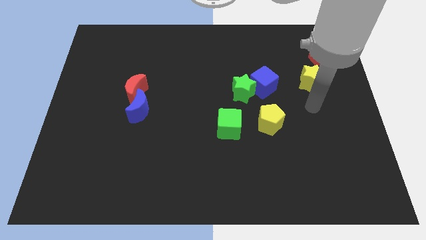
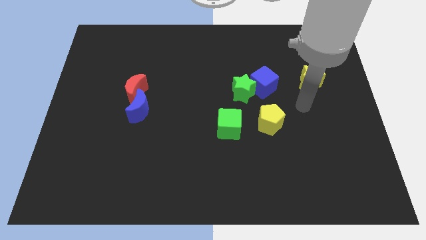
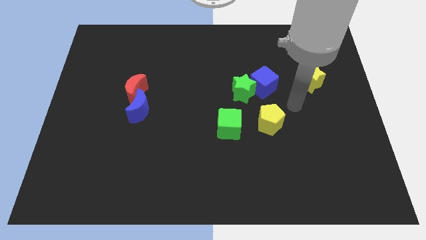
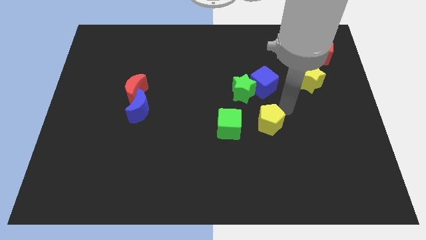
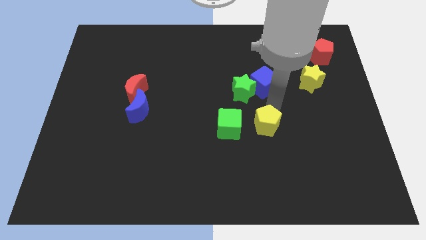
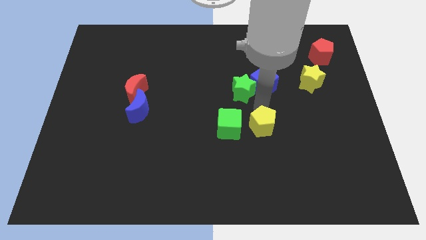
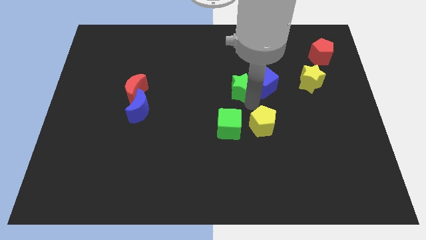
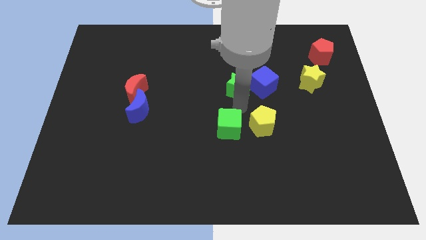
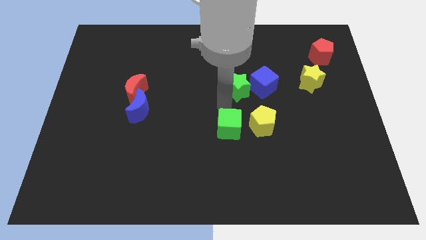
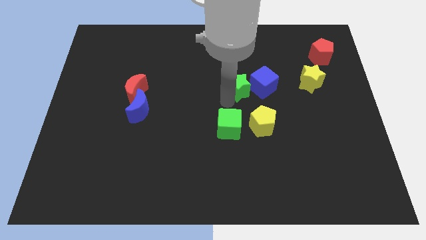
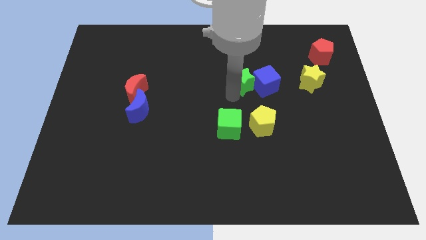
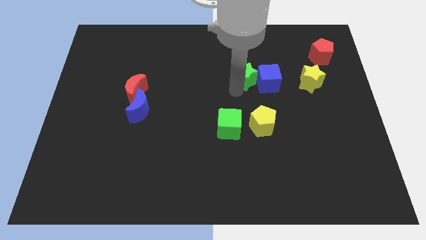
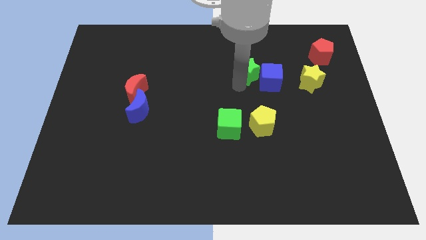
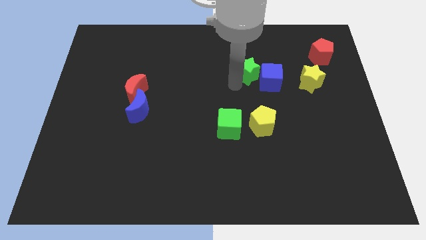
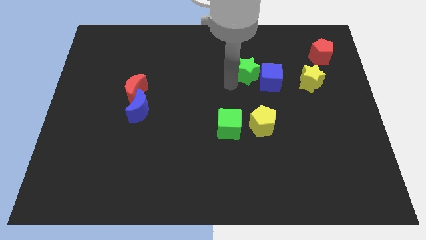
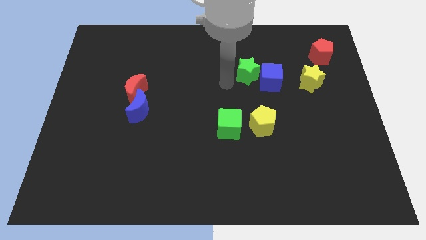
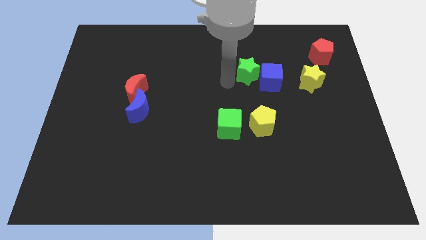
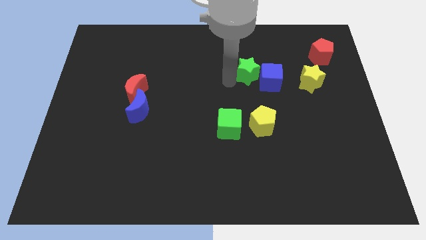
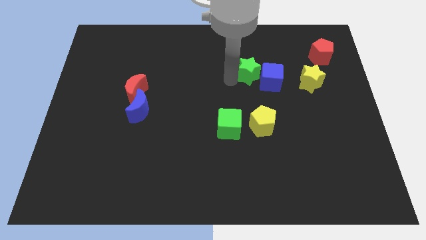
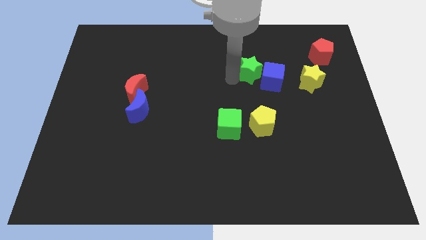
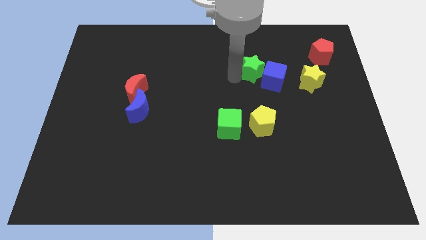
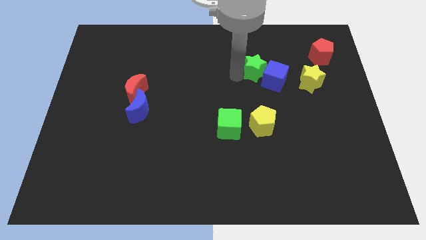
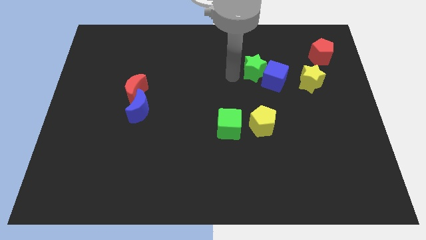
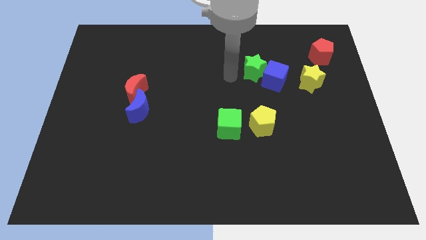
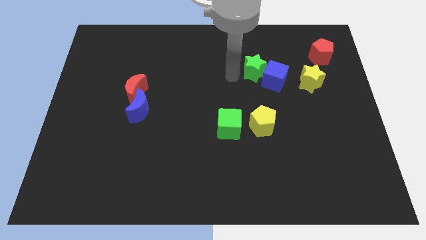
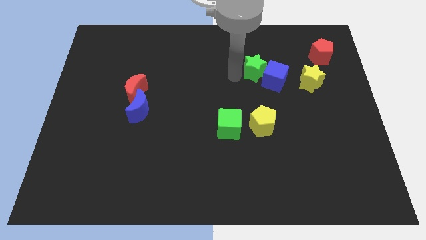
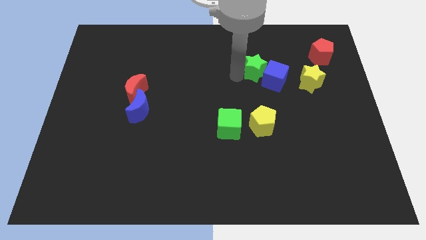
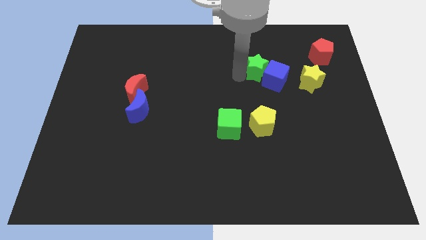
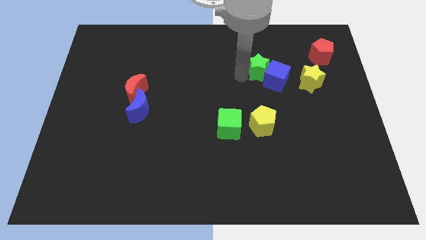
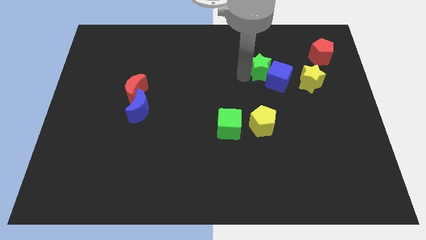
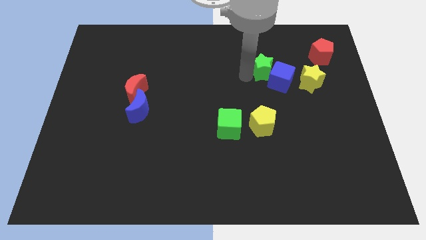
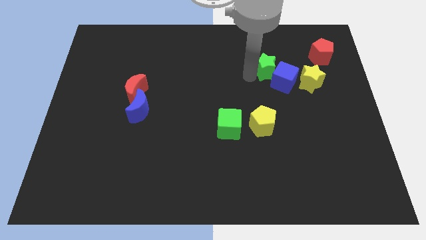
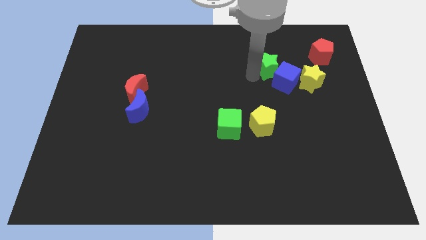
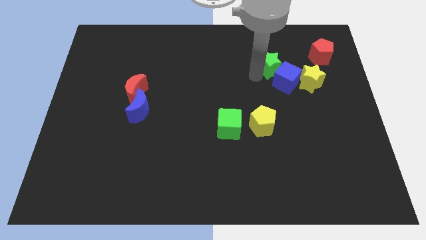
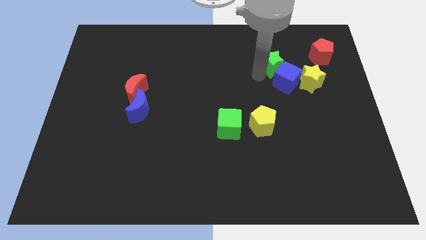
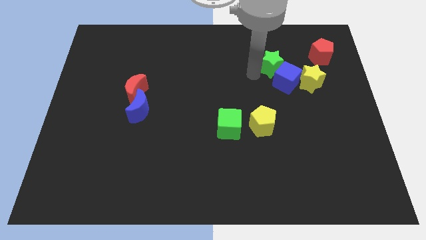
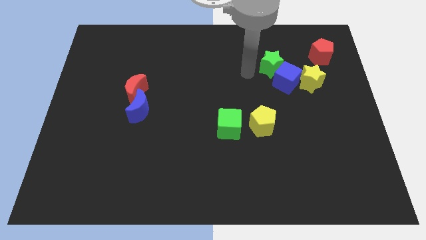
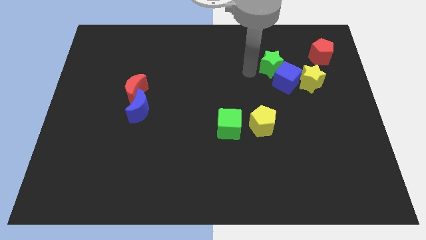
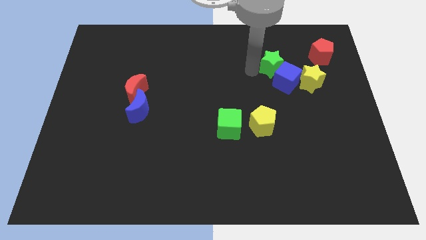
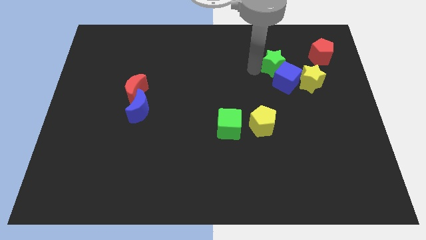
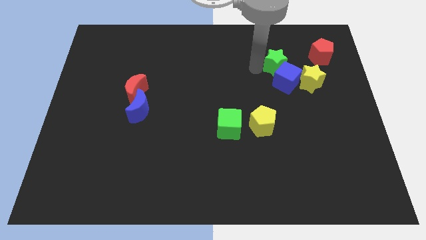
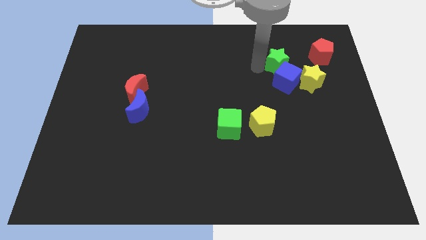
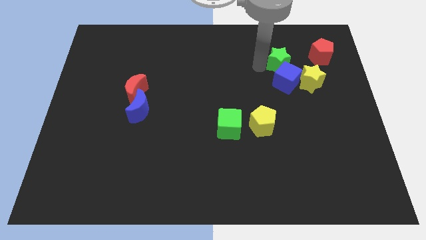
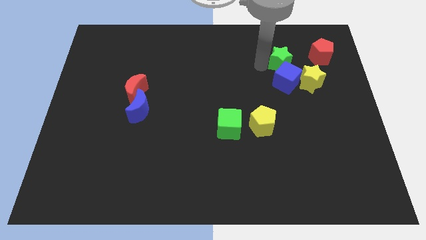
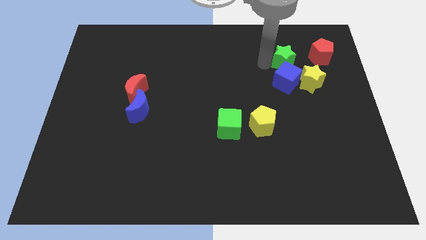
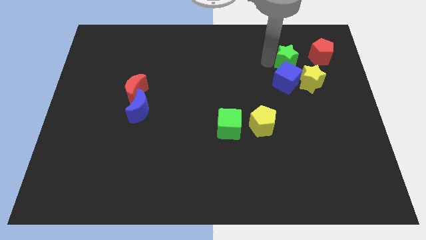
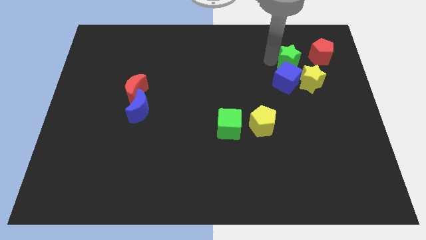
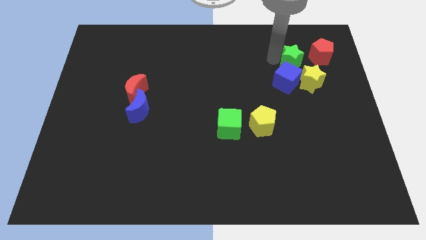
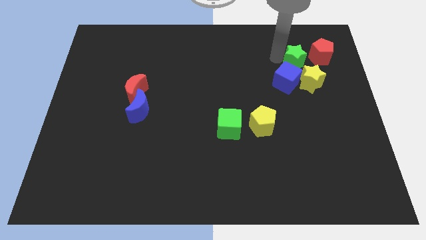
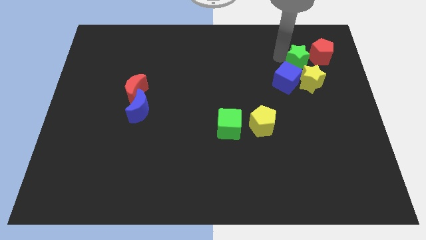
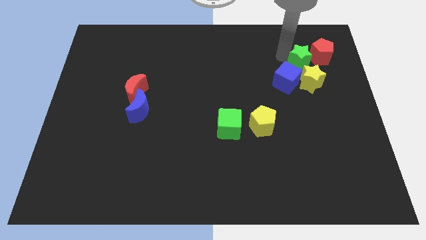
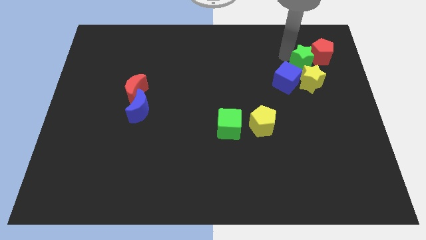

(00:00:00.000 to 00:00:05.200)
move the green star towards the red pentagon

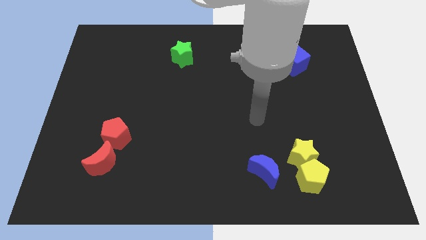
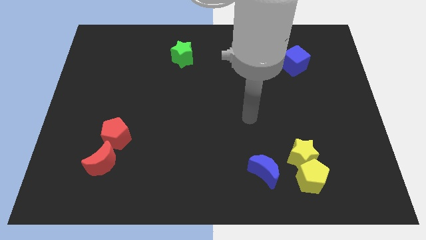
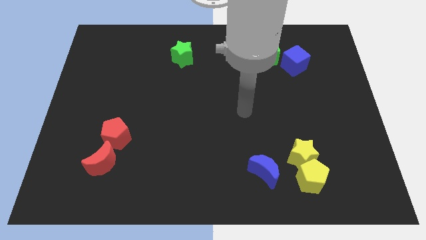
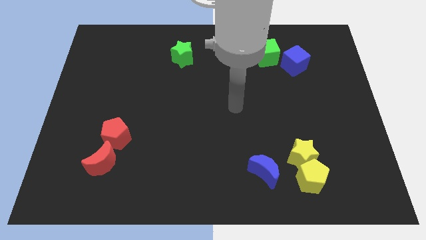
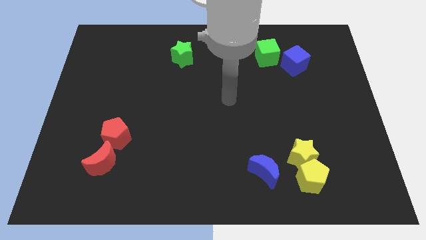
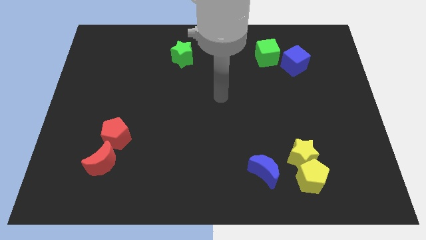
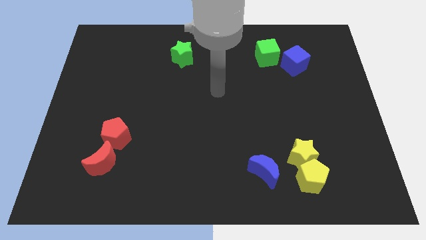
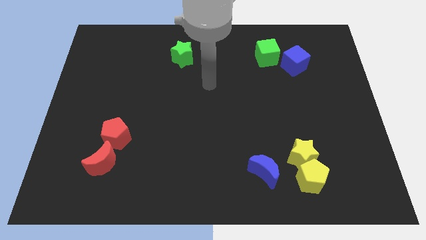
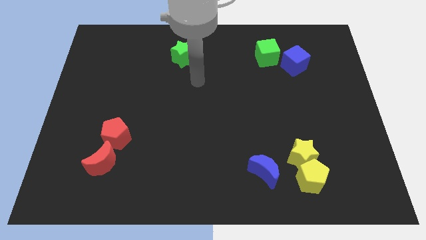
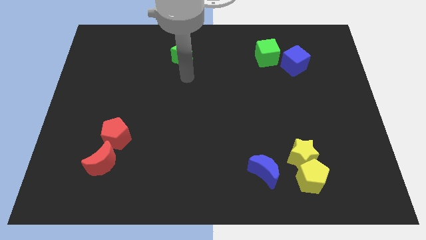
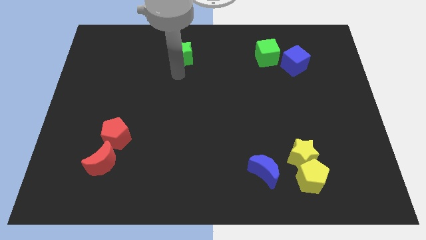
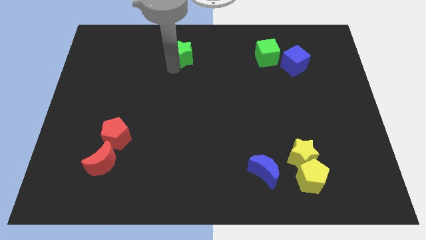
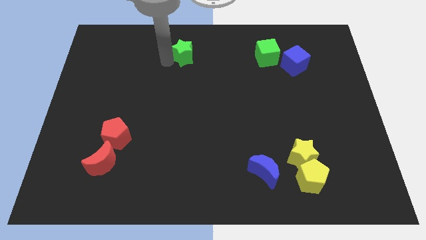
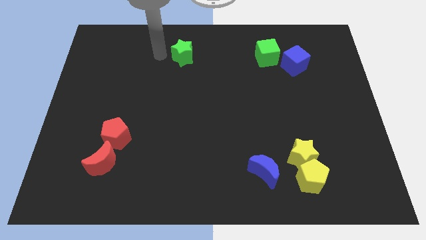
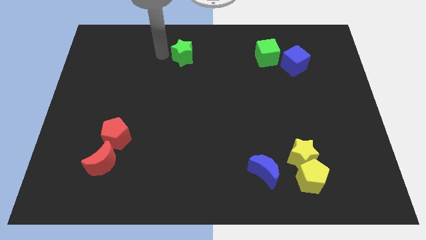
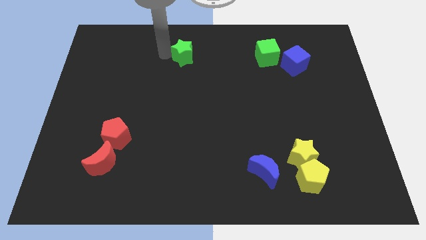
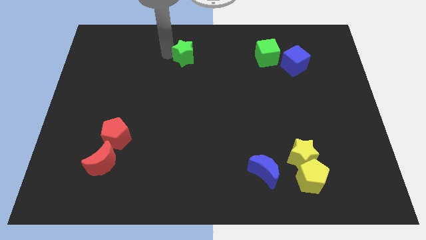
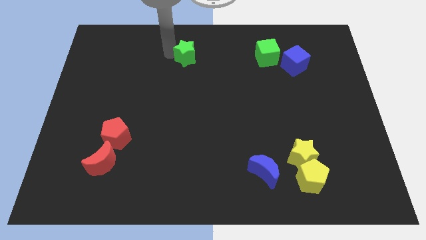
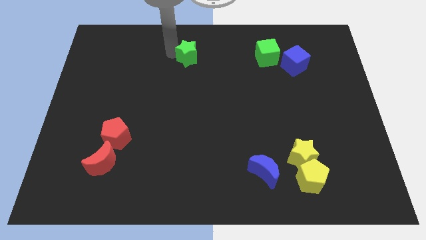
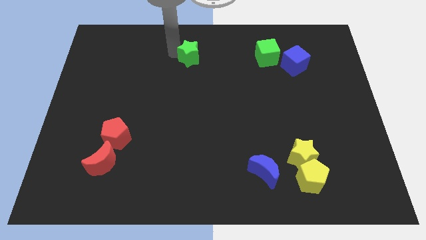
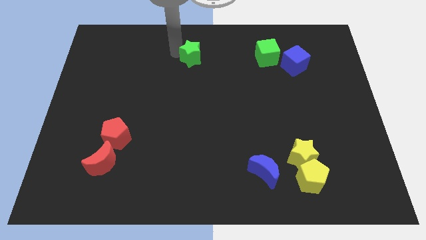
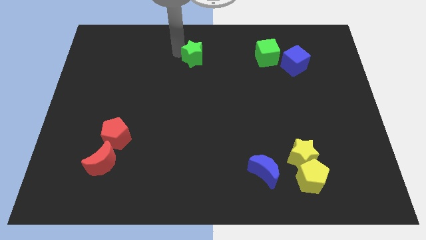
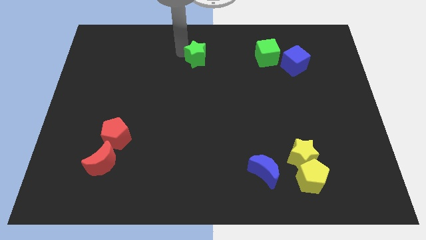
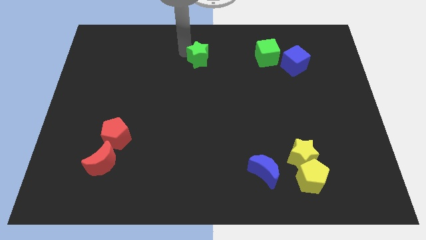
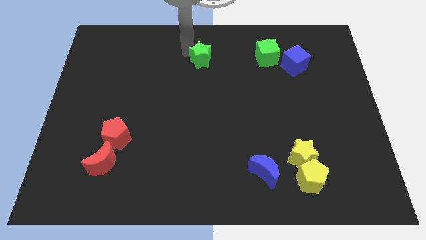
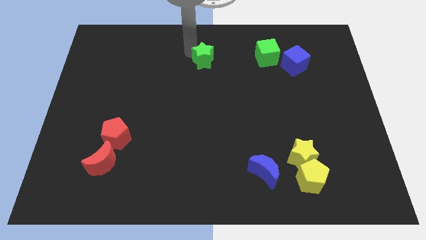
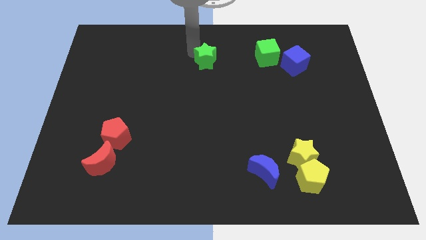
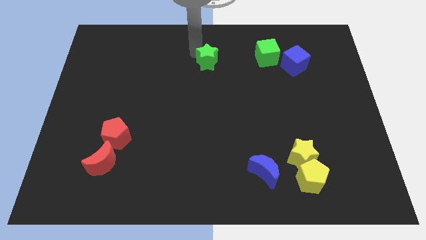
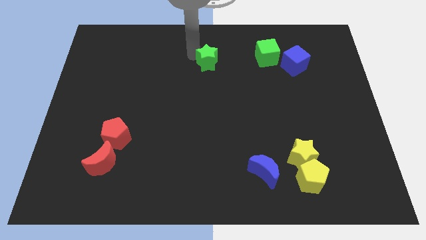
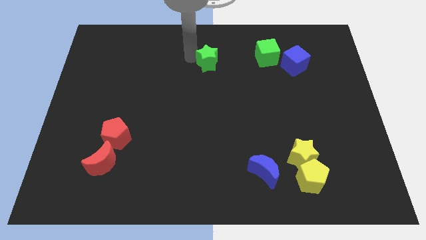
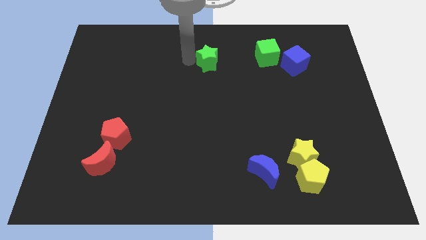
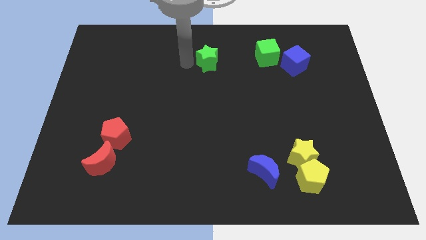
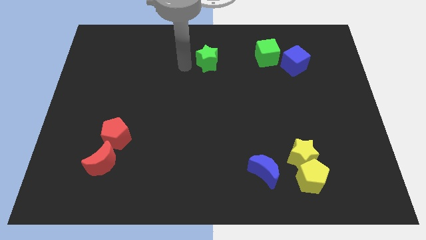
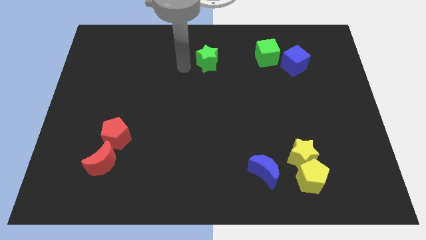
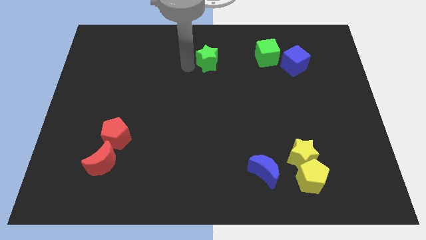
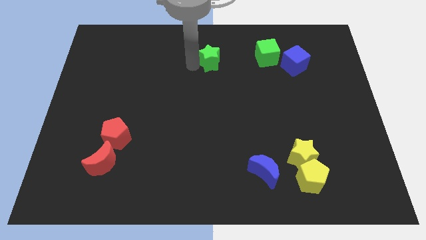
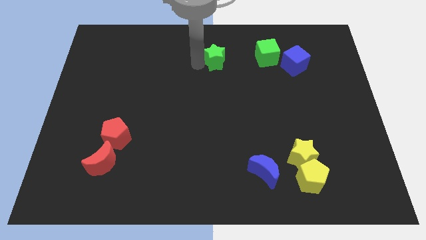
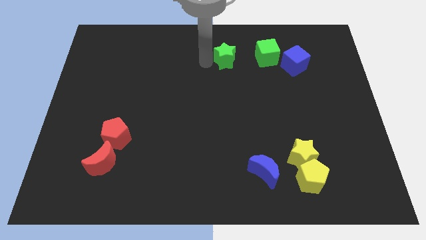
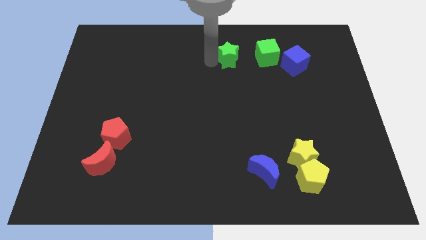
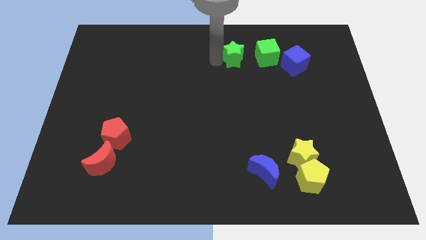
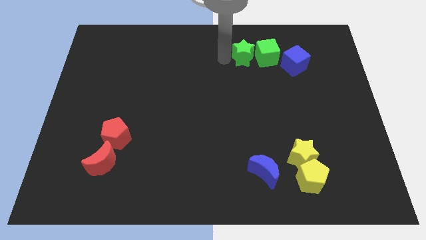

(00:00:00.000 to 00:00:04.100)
push the green star towards the green cube
